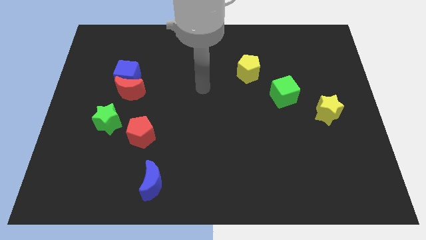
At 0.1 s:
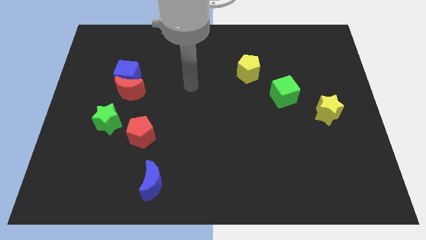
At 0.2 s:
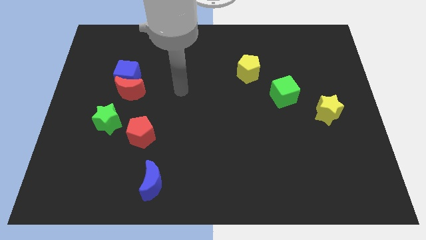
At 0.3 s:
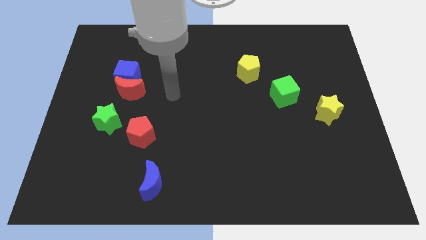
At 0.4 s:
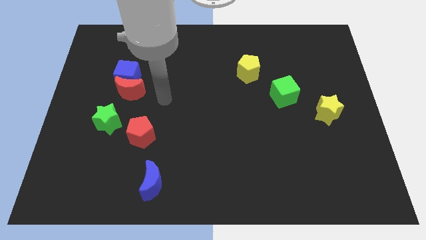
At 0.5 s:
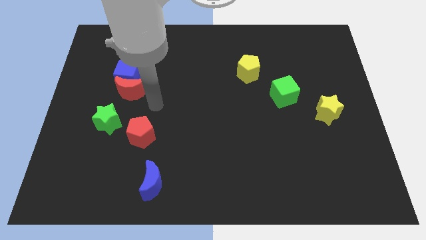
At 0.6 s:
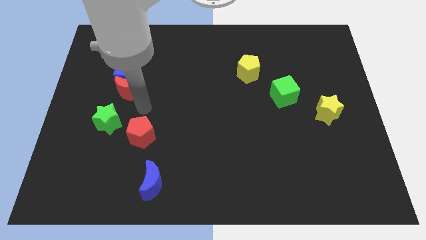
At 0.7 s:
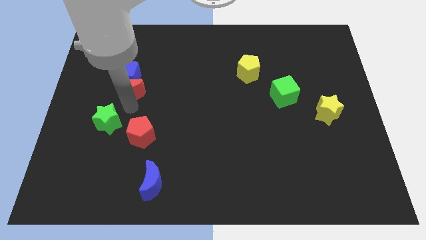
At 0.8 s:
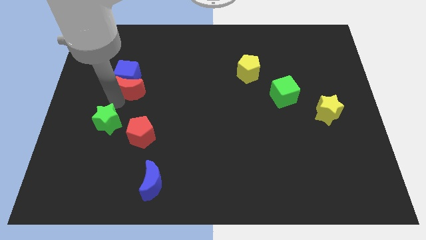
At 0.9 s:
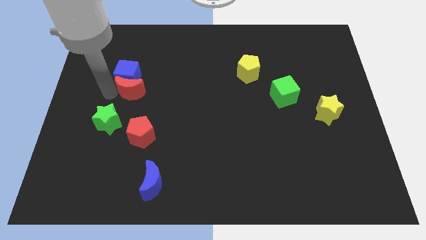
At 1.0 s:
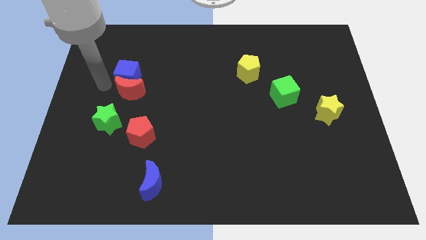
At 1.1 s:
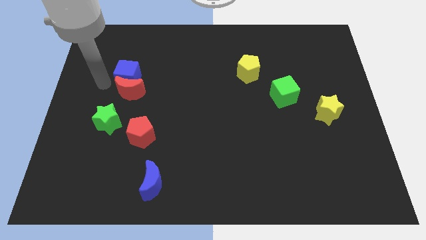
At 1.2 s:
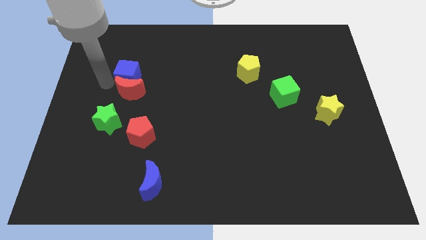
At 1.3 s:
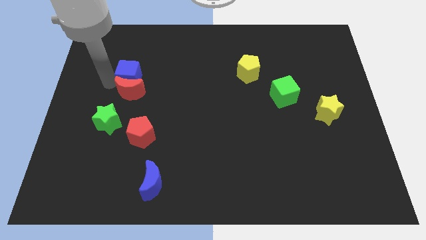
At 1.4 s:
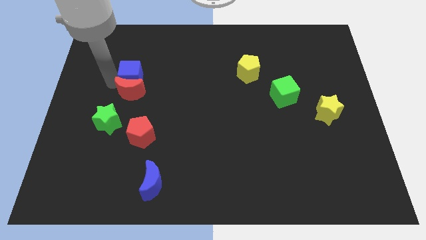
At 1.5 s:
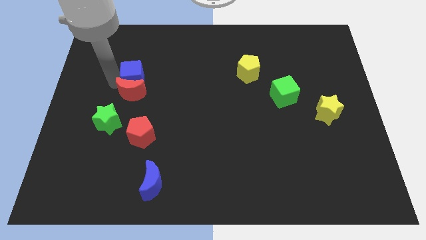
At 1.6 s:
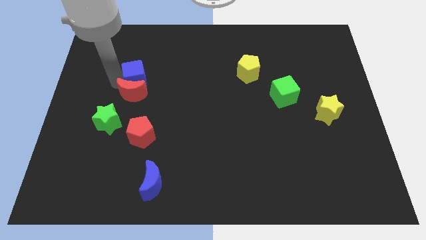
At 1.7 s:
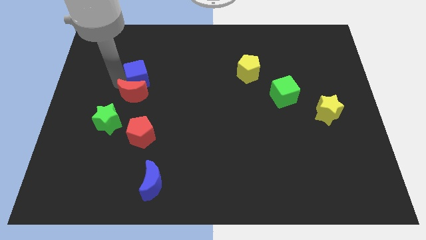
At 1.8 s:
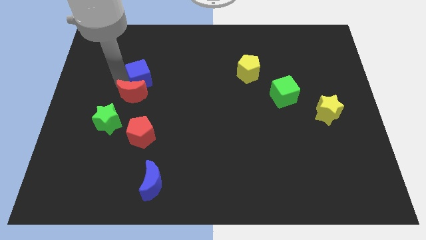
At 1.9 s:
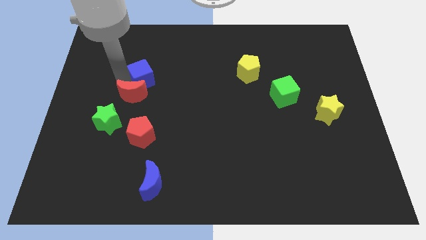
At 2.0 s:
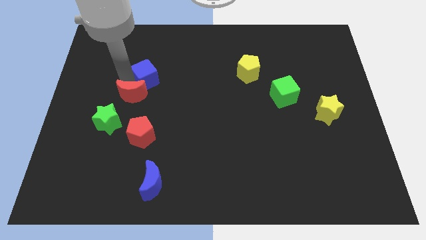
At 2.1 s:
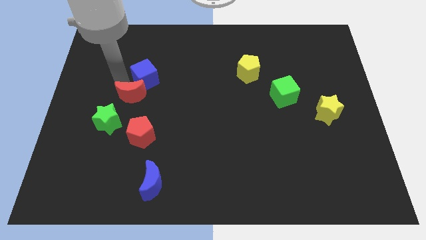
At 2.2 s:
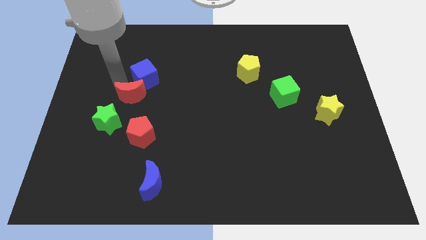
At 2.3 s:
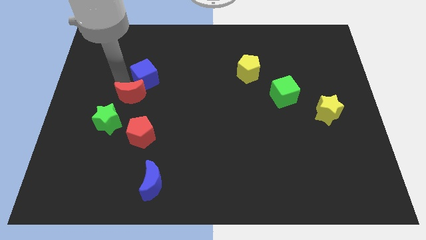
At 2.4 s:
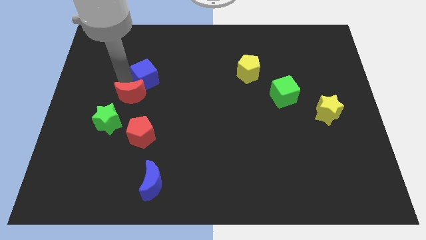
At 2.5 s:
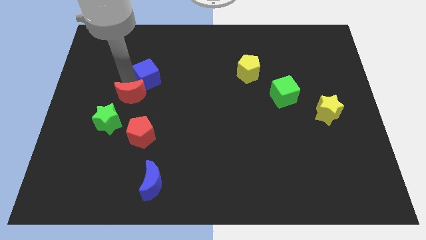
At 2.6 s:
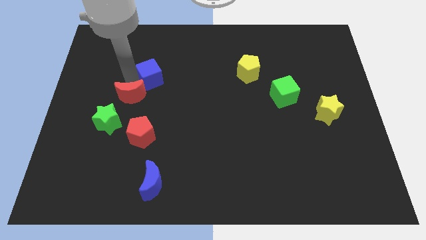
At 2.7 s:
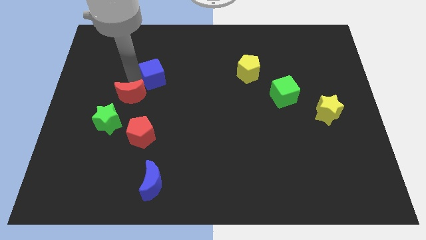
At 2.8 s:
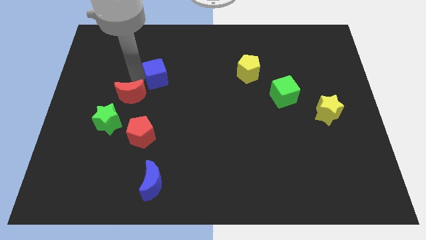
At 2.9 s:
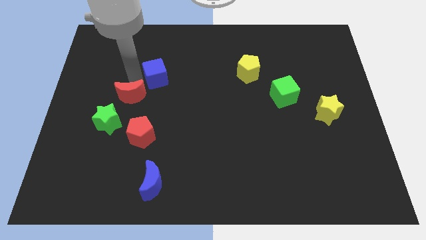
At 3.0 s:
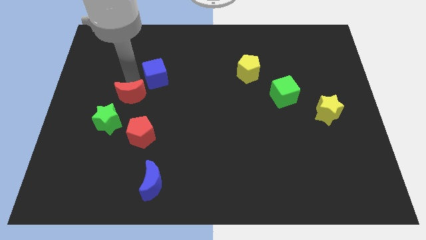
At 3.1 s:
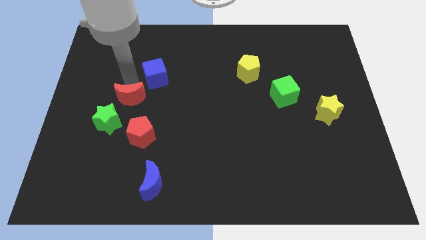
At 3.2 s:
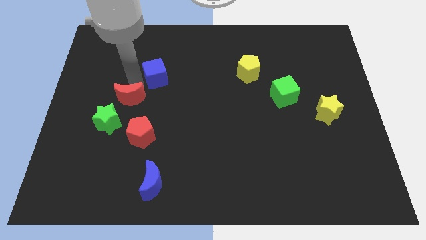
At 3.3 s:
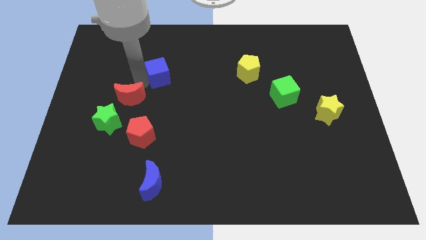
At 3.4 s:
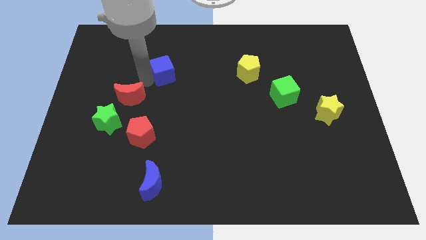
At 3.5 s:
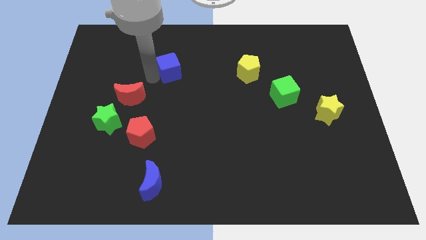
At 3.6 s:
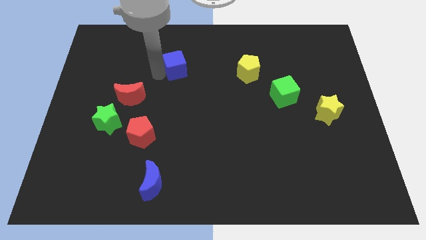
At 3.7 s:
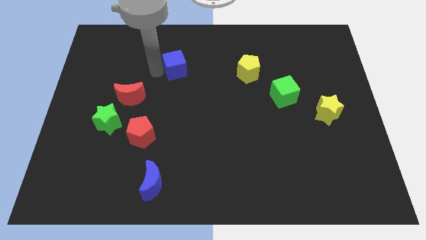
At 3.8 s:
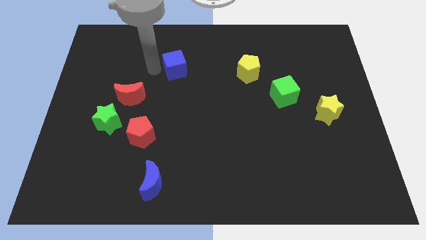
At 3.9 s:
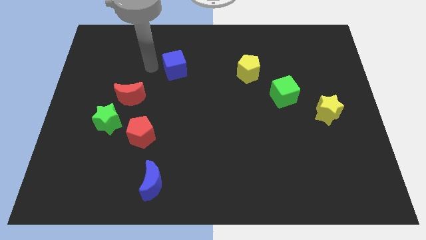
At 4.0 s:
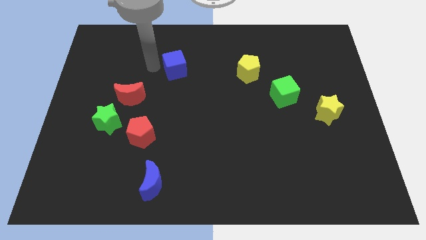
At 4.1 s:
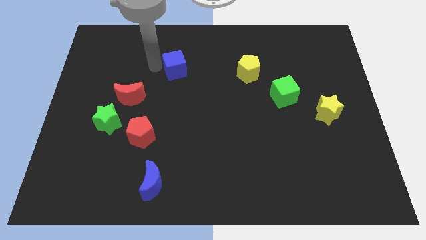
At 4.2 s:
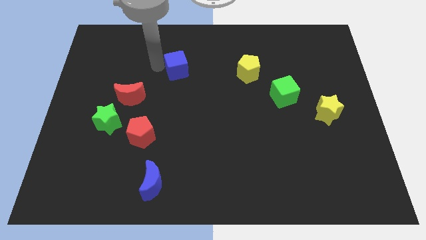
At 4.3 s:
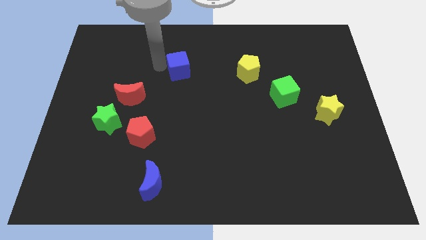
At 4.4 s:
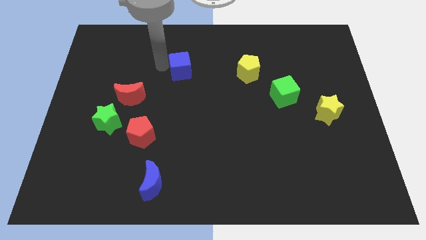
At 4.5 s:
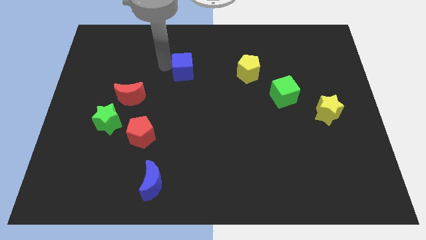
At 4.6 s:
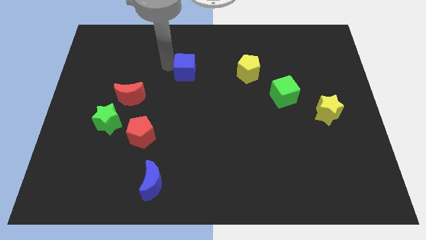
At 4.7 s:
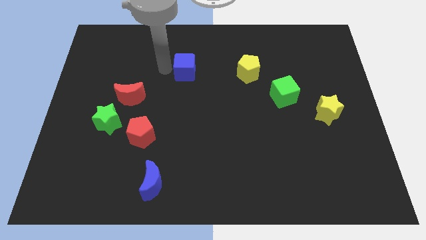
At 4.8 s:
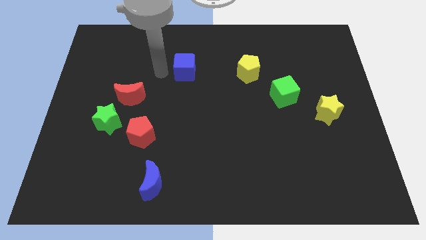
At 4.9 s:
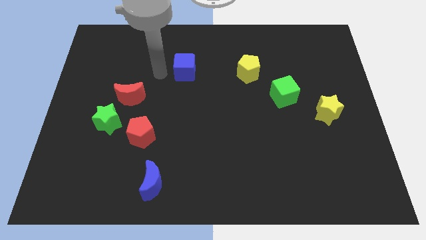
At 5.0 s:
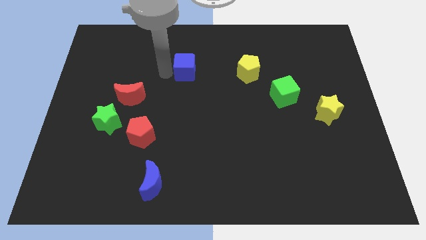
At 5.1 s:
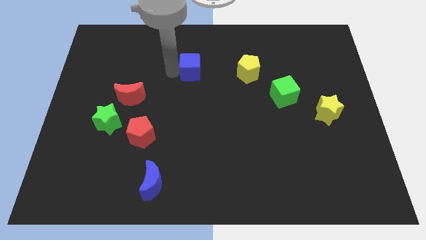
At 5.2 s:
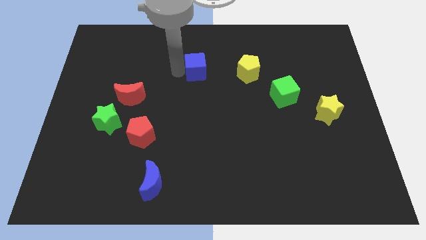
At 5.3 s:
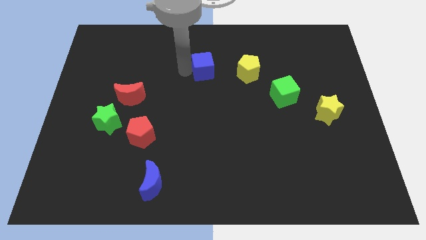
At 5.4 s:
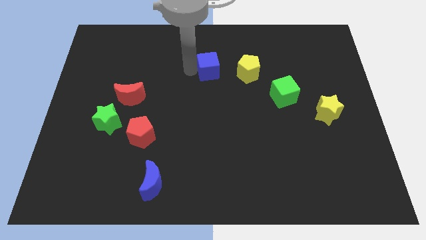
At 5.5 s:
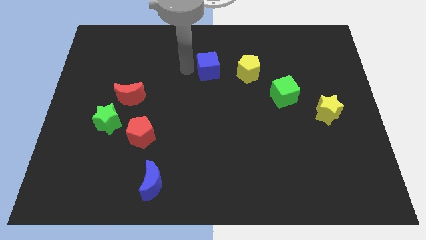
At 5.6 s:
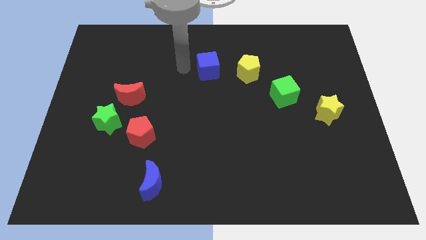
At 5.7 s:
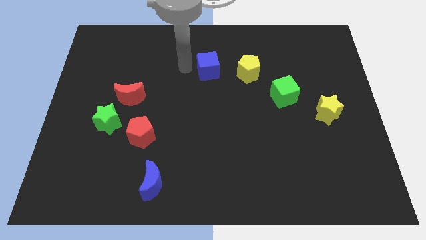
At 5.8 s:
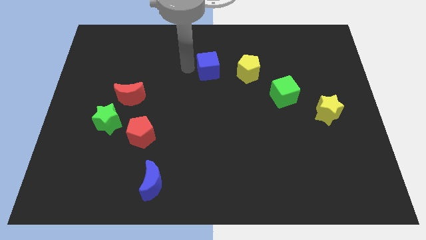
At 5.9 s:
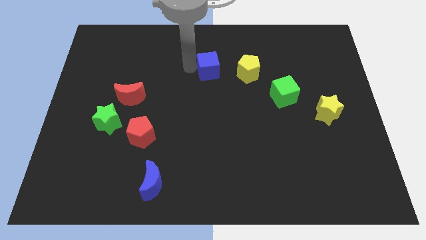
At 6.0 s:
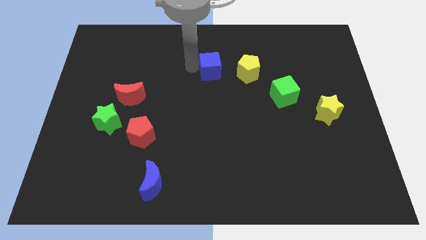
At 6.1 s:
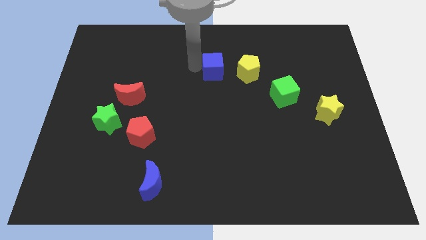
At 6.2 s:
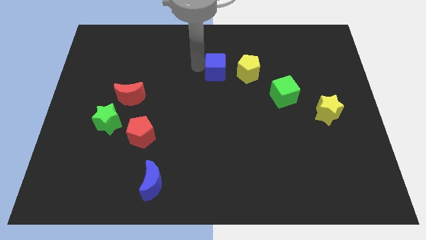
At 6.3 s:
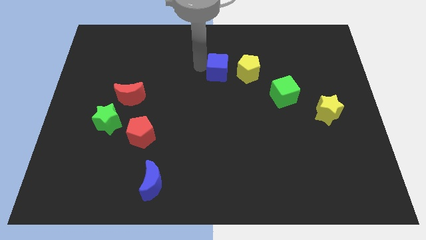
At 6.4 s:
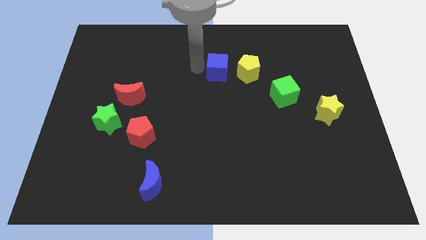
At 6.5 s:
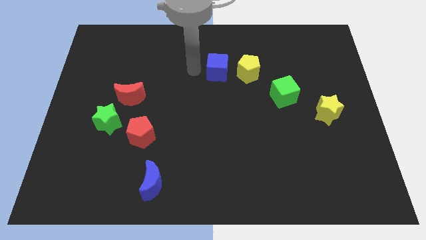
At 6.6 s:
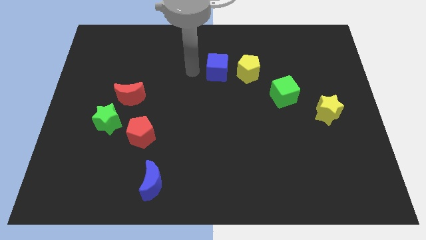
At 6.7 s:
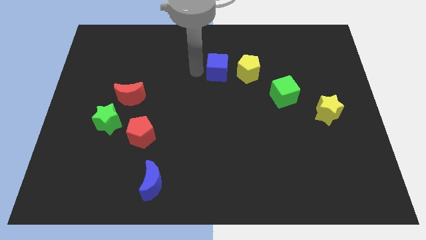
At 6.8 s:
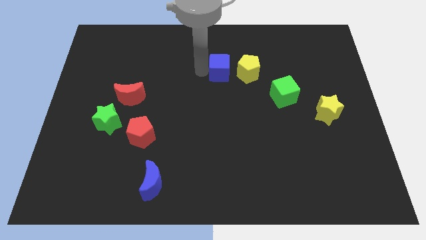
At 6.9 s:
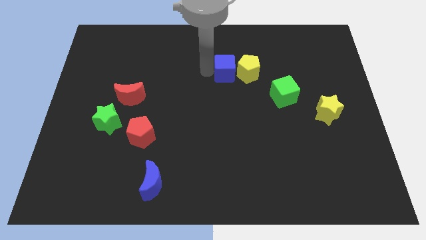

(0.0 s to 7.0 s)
move the blue cube next to the yellow pentagon
